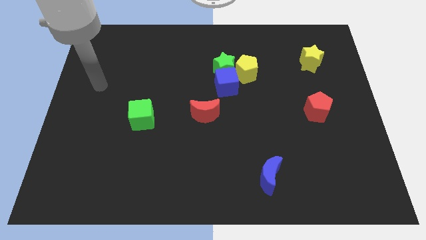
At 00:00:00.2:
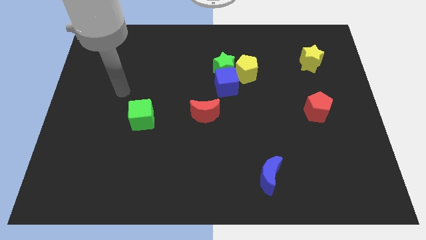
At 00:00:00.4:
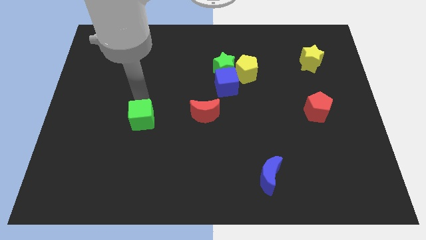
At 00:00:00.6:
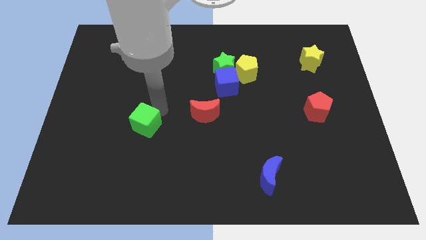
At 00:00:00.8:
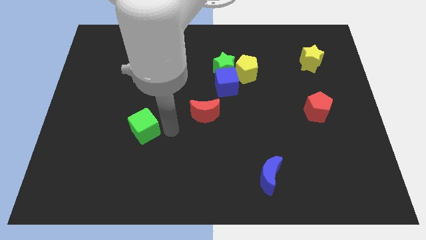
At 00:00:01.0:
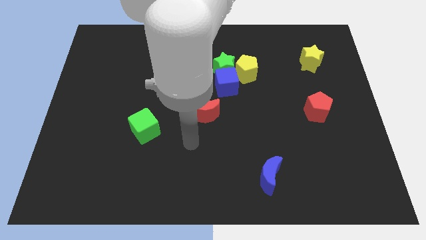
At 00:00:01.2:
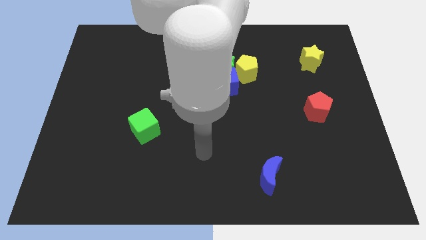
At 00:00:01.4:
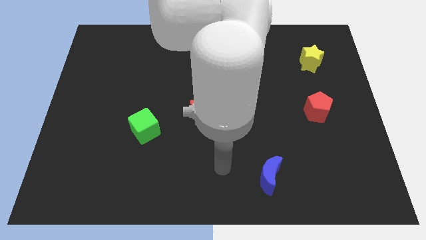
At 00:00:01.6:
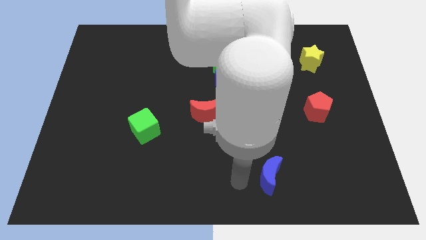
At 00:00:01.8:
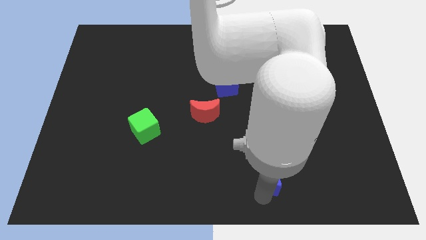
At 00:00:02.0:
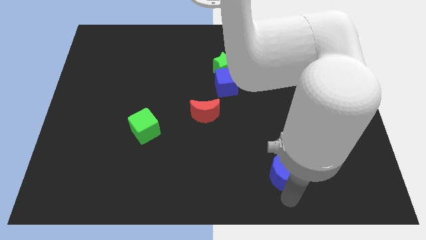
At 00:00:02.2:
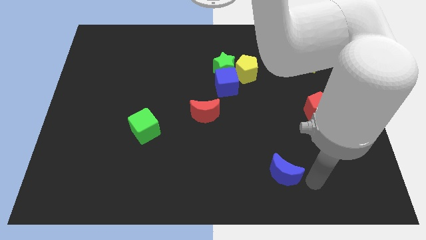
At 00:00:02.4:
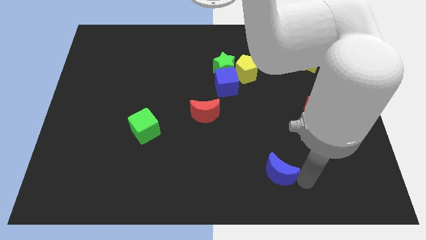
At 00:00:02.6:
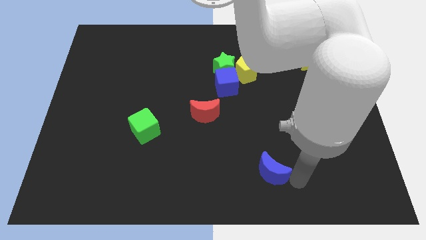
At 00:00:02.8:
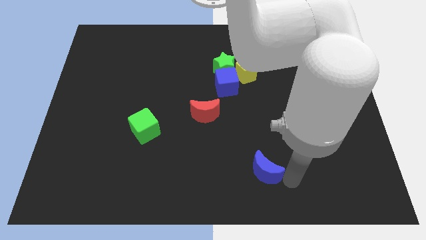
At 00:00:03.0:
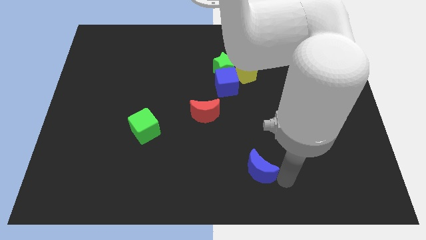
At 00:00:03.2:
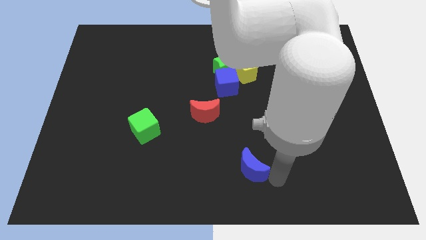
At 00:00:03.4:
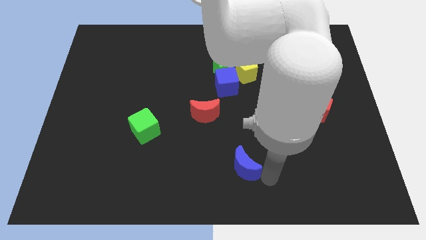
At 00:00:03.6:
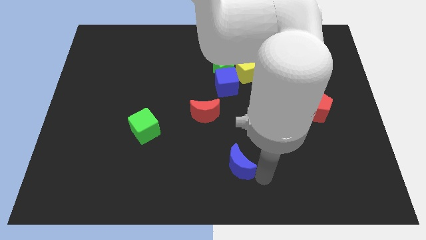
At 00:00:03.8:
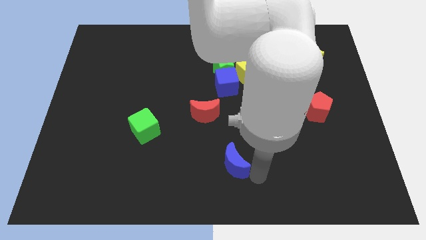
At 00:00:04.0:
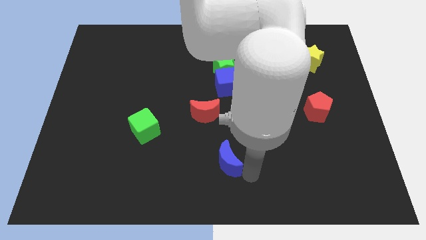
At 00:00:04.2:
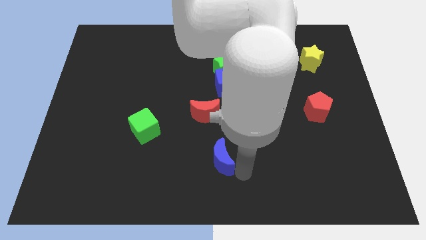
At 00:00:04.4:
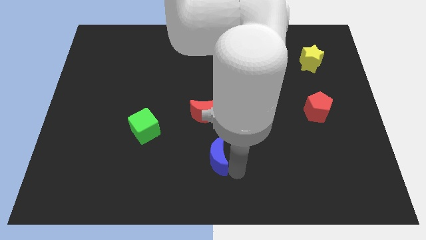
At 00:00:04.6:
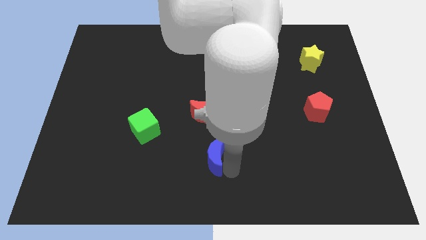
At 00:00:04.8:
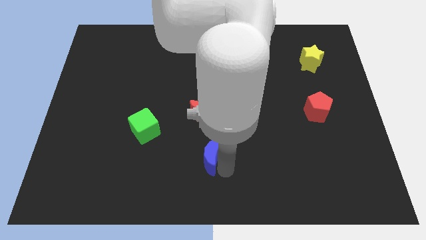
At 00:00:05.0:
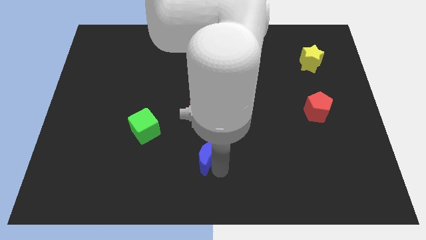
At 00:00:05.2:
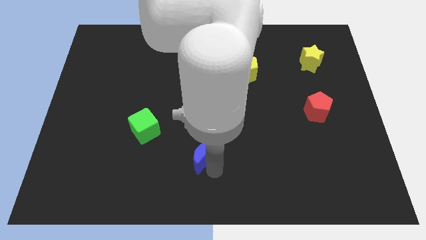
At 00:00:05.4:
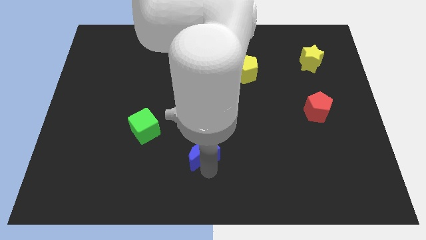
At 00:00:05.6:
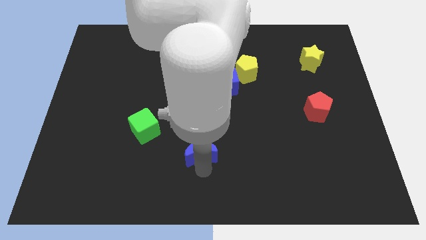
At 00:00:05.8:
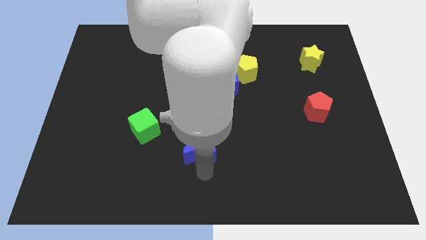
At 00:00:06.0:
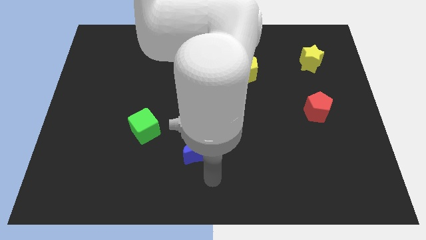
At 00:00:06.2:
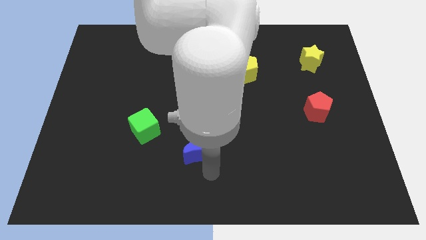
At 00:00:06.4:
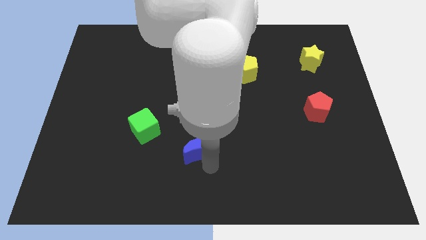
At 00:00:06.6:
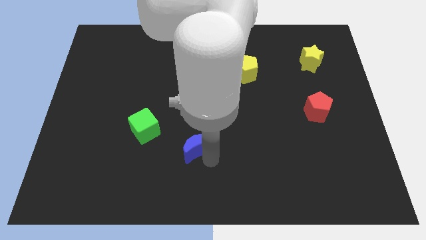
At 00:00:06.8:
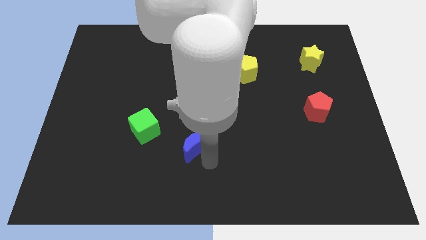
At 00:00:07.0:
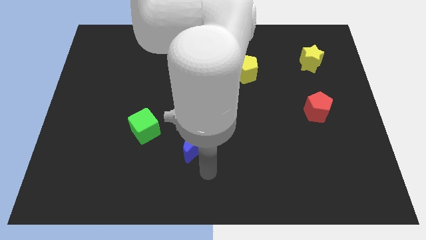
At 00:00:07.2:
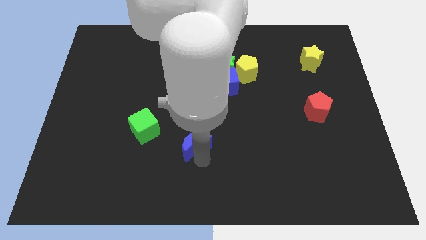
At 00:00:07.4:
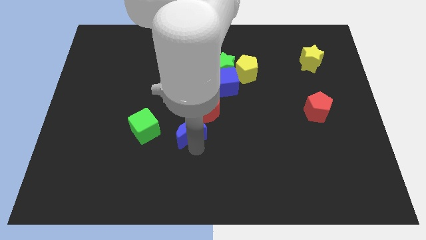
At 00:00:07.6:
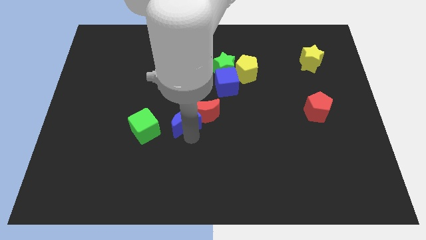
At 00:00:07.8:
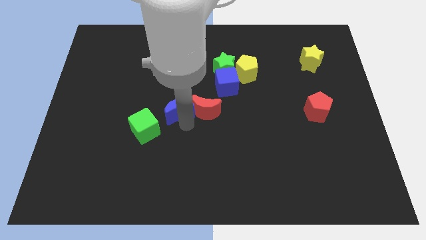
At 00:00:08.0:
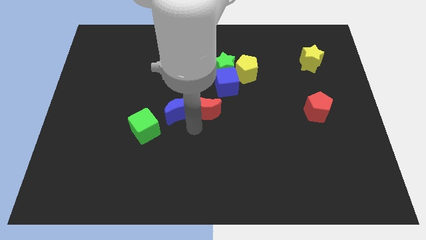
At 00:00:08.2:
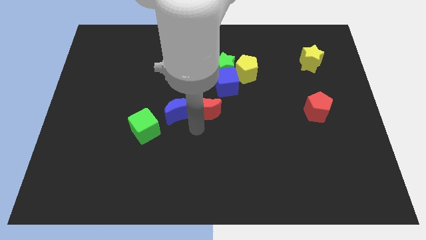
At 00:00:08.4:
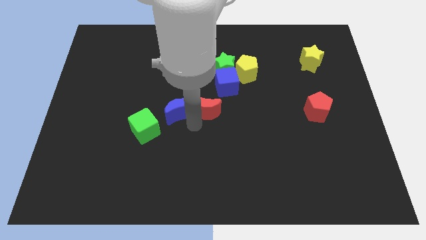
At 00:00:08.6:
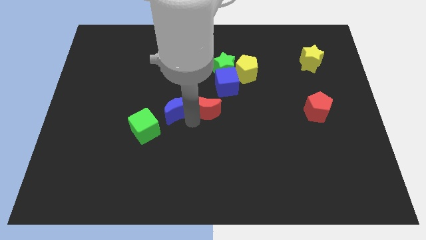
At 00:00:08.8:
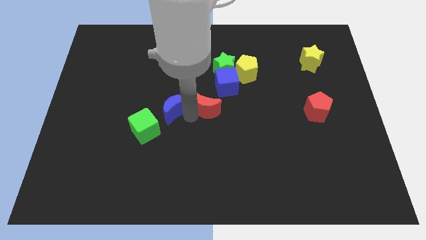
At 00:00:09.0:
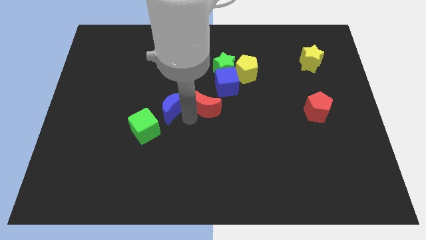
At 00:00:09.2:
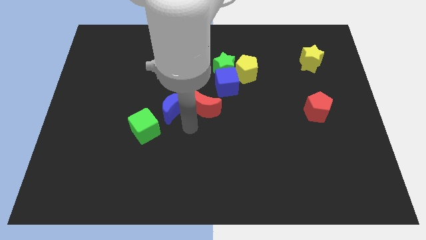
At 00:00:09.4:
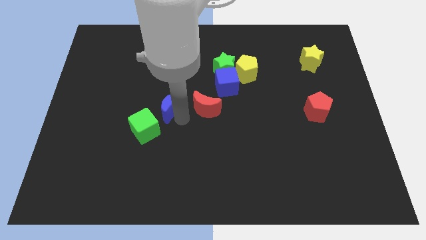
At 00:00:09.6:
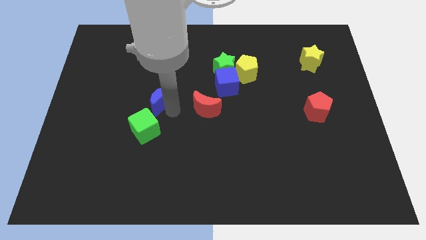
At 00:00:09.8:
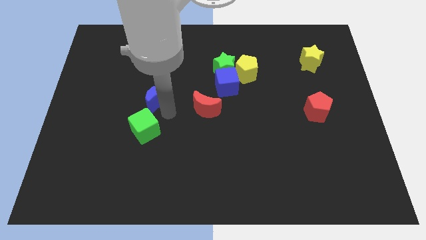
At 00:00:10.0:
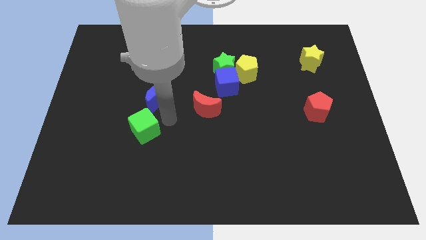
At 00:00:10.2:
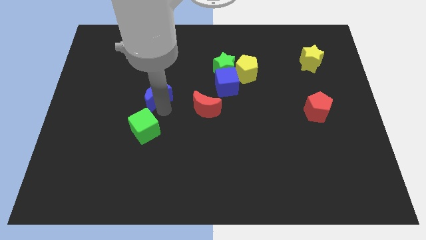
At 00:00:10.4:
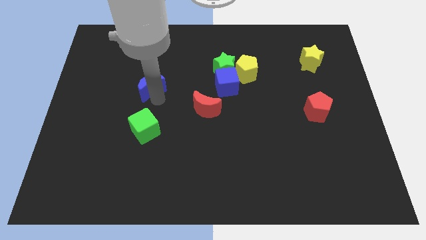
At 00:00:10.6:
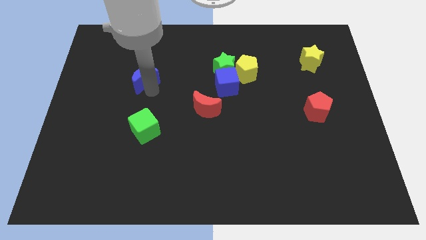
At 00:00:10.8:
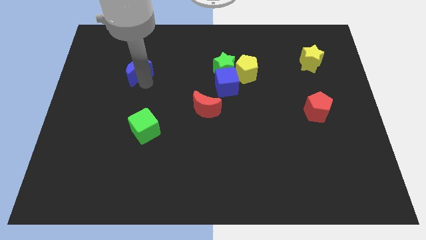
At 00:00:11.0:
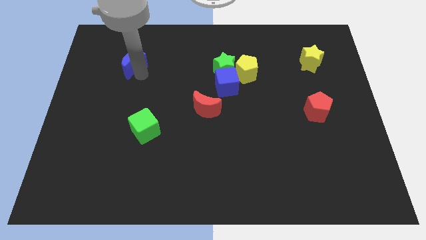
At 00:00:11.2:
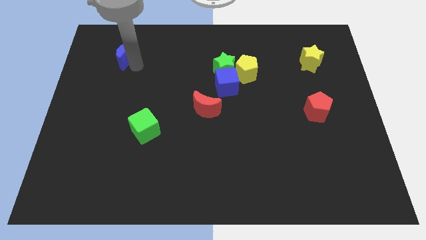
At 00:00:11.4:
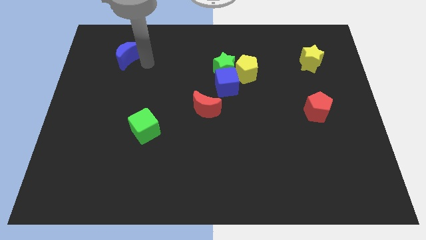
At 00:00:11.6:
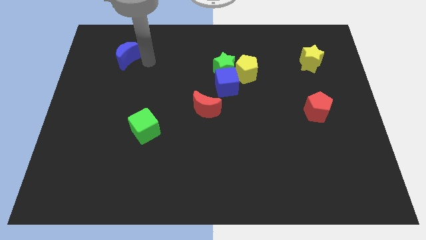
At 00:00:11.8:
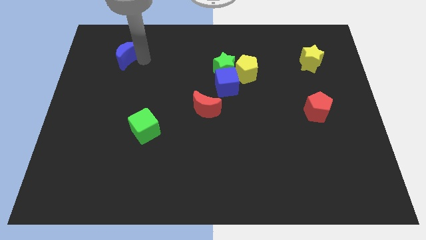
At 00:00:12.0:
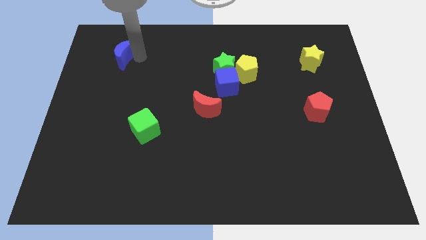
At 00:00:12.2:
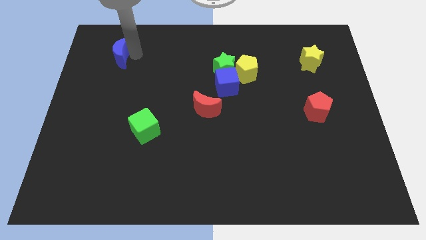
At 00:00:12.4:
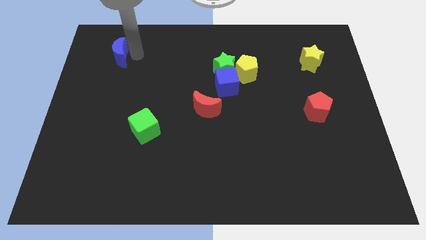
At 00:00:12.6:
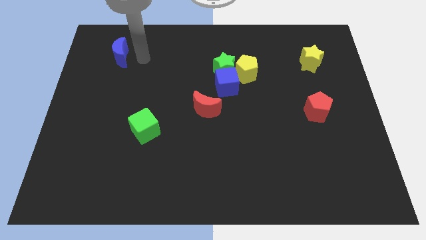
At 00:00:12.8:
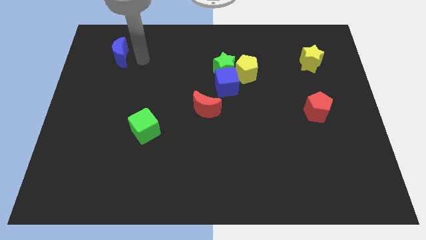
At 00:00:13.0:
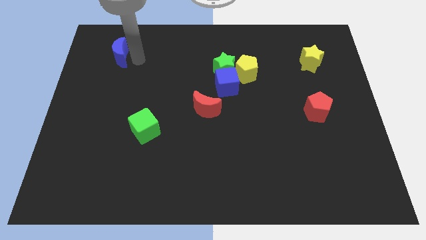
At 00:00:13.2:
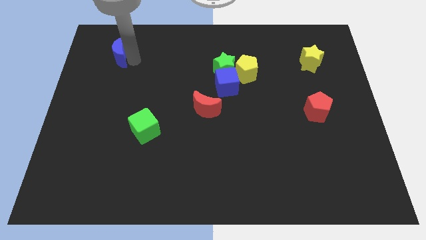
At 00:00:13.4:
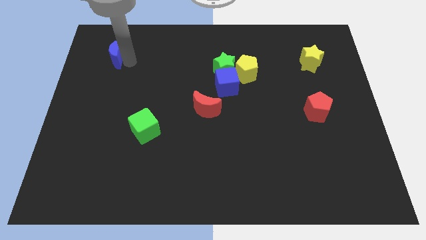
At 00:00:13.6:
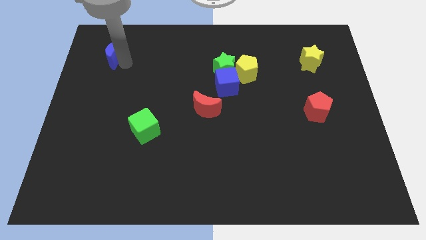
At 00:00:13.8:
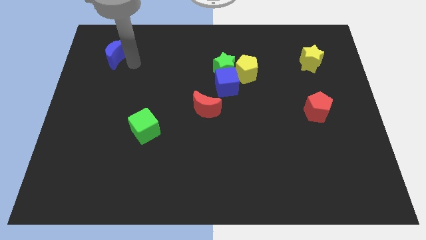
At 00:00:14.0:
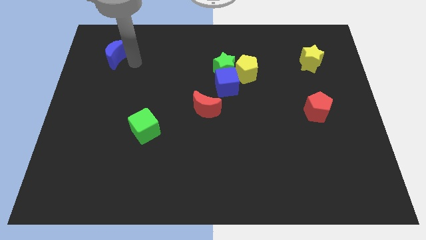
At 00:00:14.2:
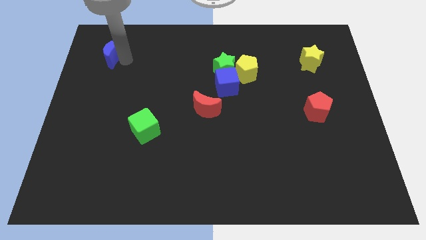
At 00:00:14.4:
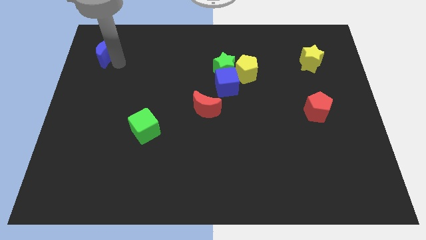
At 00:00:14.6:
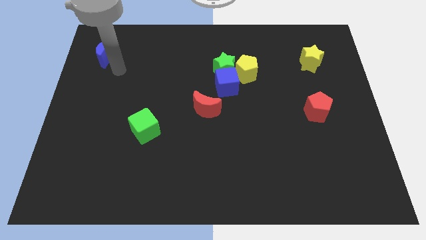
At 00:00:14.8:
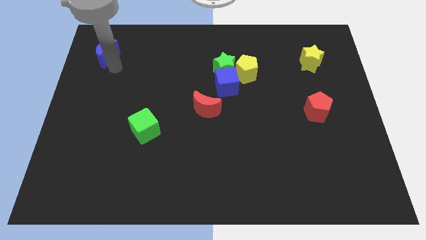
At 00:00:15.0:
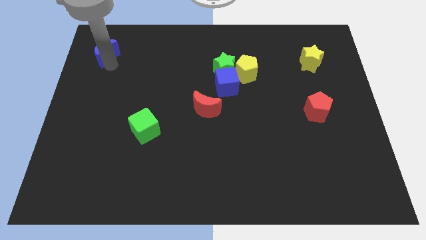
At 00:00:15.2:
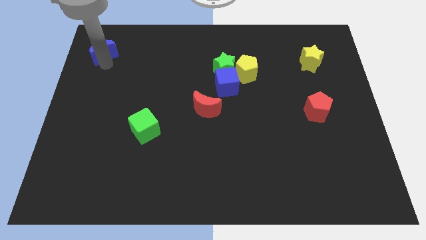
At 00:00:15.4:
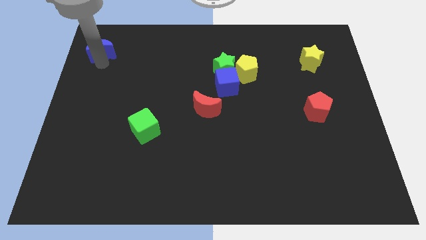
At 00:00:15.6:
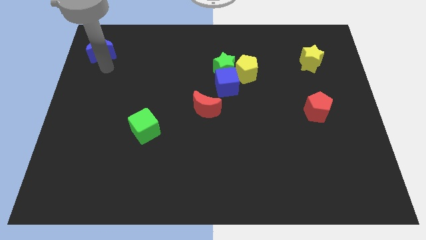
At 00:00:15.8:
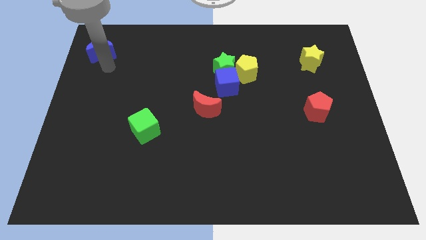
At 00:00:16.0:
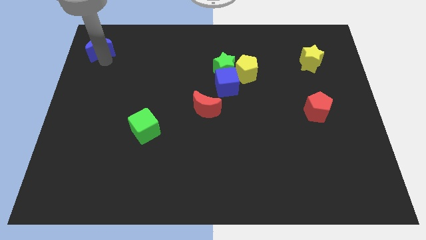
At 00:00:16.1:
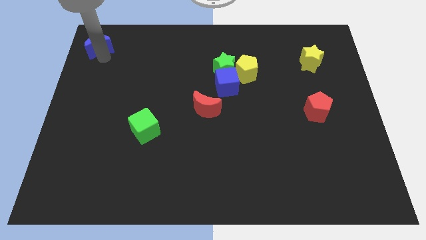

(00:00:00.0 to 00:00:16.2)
move the blue moon to the top left
